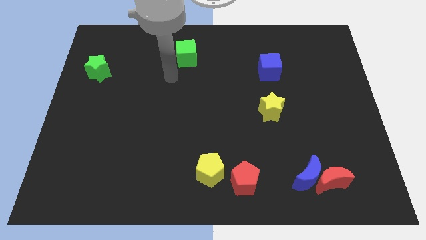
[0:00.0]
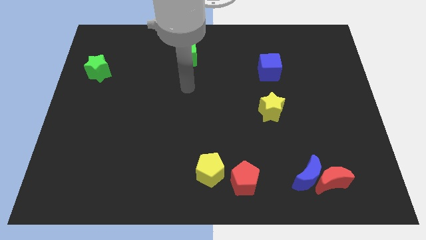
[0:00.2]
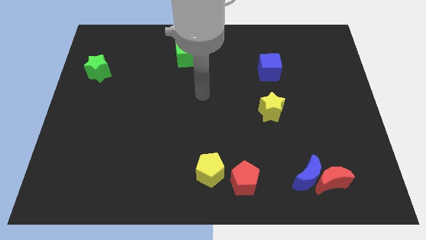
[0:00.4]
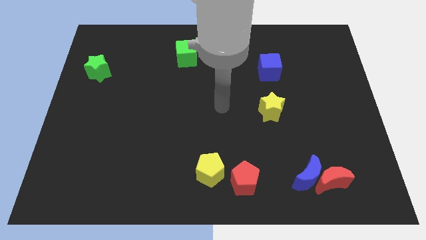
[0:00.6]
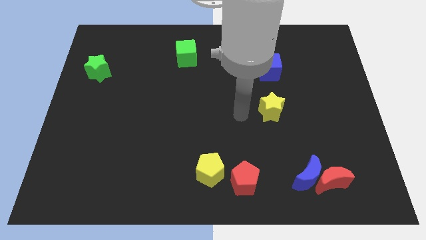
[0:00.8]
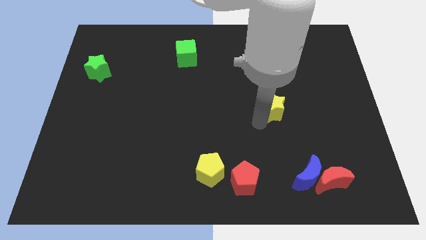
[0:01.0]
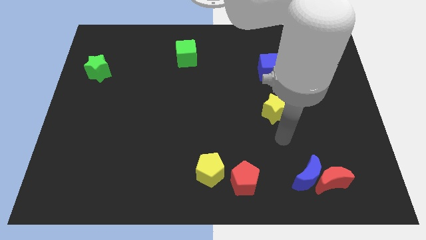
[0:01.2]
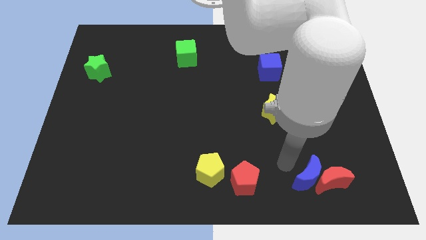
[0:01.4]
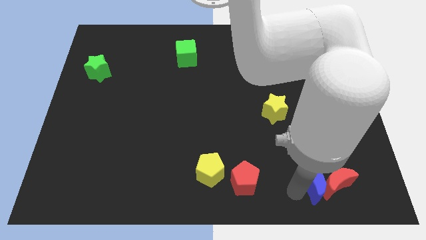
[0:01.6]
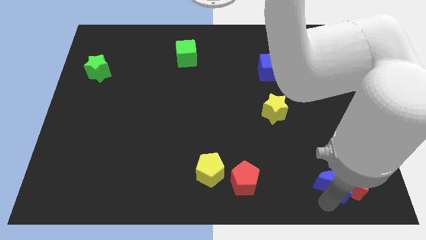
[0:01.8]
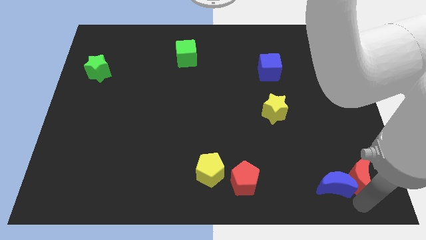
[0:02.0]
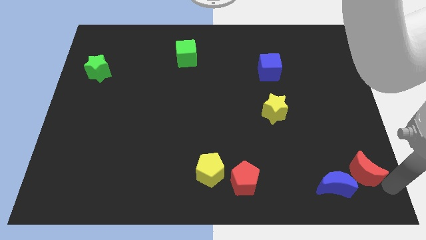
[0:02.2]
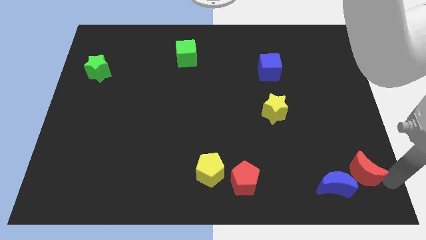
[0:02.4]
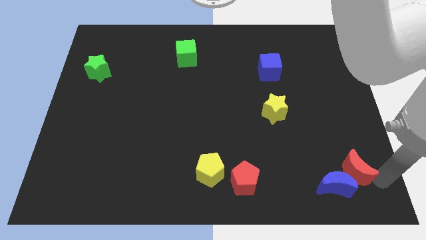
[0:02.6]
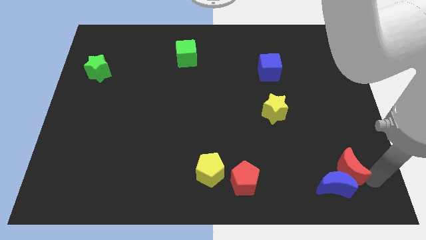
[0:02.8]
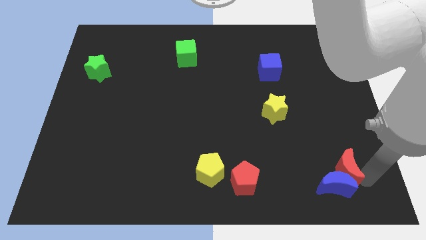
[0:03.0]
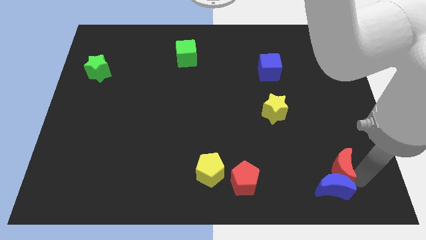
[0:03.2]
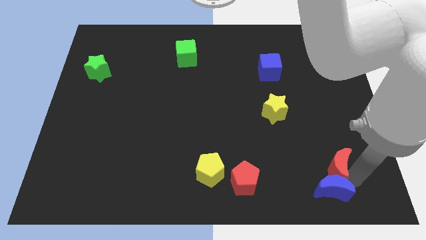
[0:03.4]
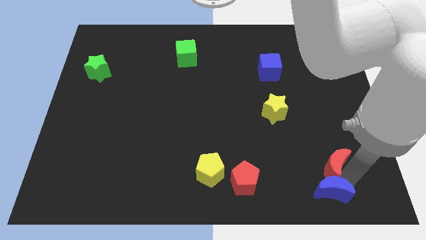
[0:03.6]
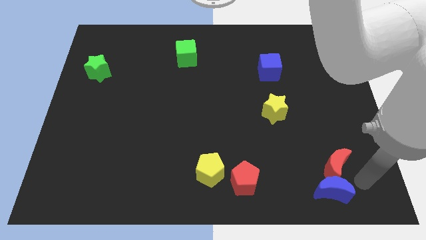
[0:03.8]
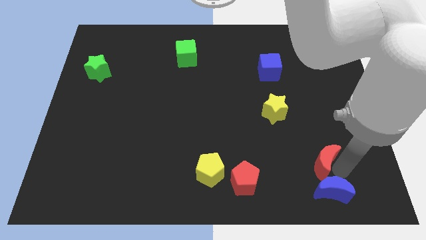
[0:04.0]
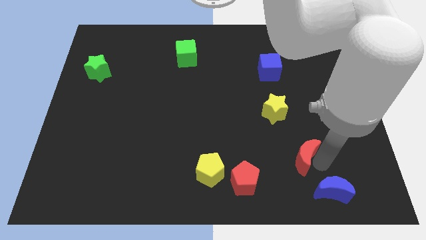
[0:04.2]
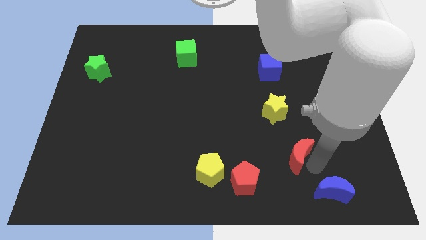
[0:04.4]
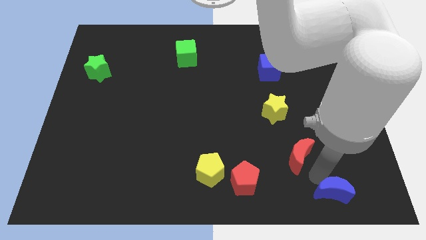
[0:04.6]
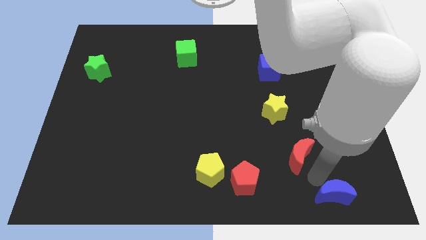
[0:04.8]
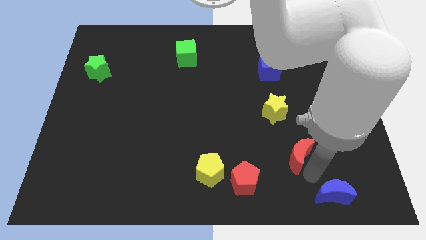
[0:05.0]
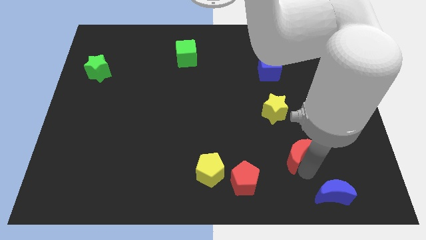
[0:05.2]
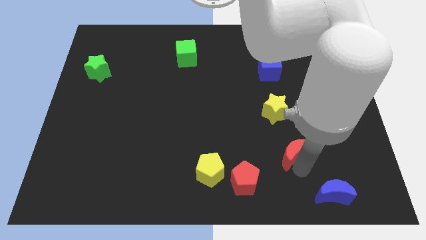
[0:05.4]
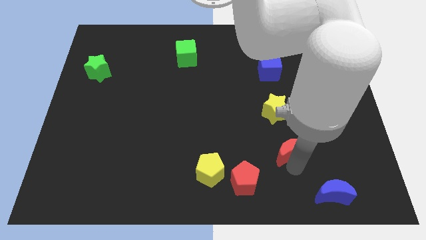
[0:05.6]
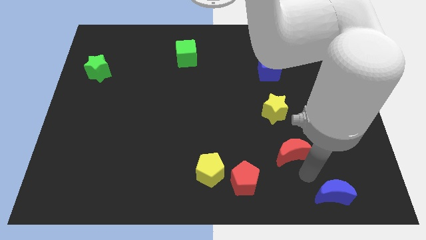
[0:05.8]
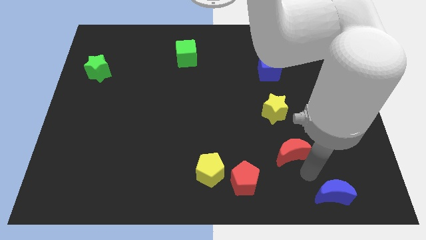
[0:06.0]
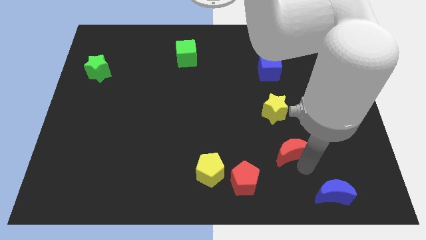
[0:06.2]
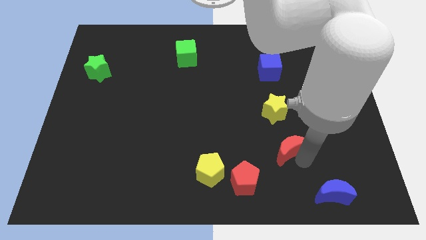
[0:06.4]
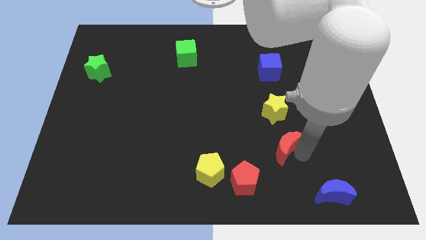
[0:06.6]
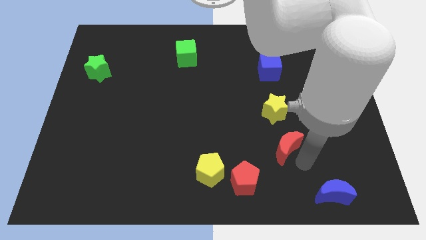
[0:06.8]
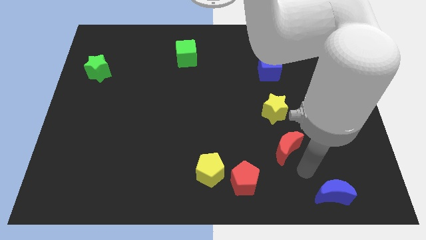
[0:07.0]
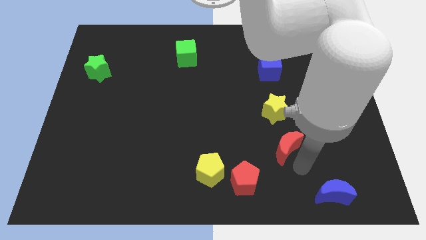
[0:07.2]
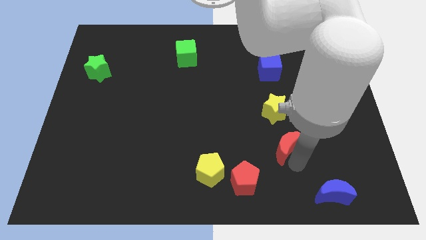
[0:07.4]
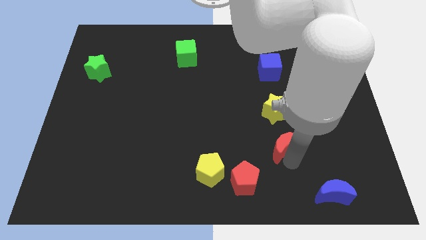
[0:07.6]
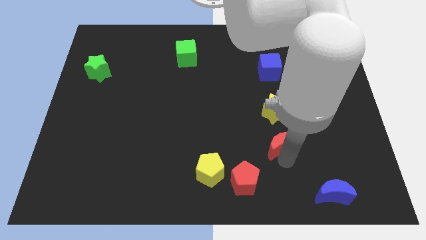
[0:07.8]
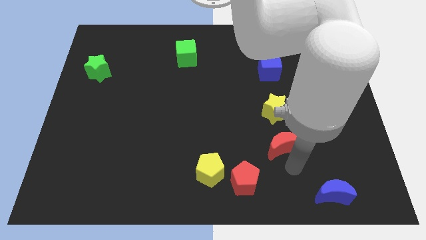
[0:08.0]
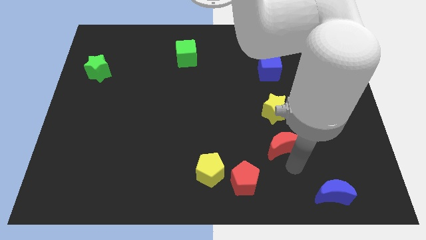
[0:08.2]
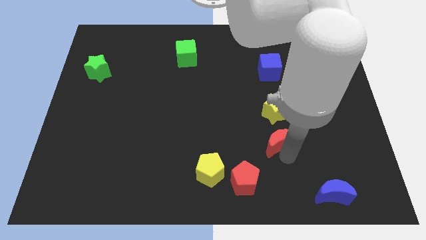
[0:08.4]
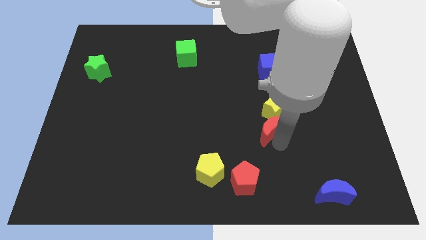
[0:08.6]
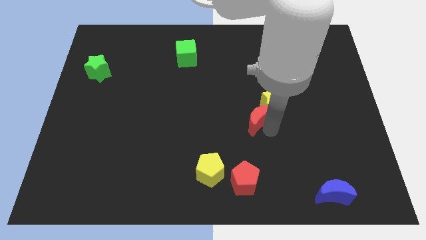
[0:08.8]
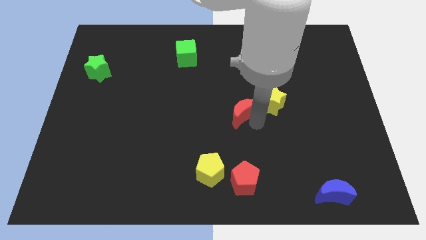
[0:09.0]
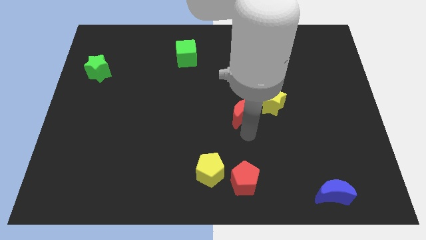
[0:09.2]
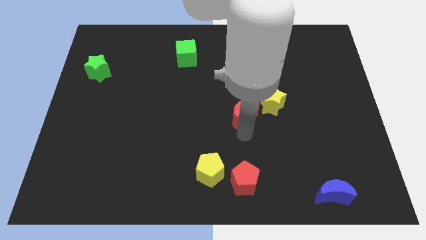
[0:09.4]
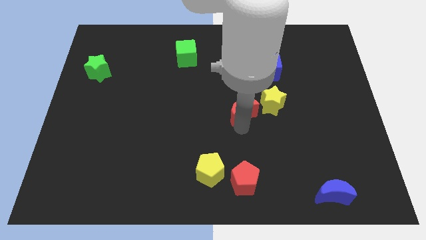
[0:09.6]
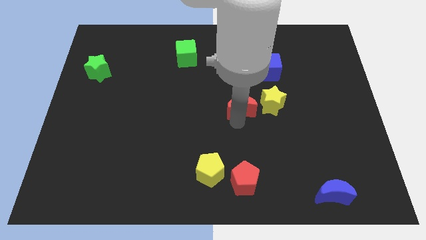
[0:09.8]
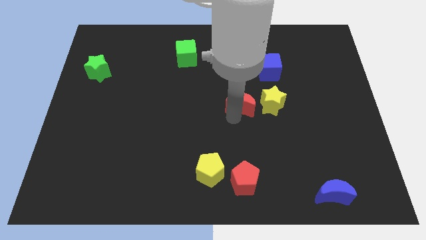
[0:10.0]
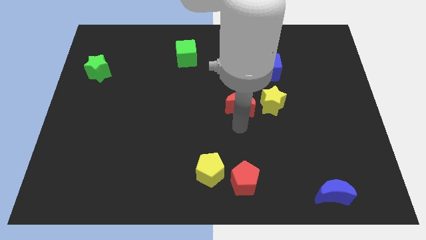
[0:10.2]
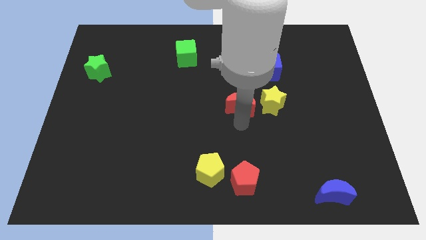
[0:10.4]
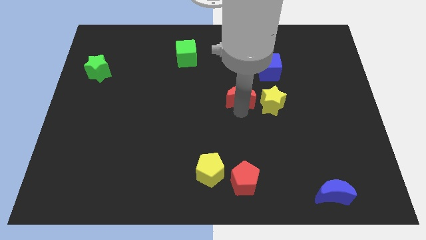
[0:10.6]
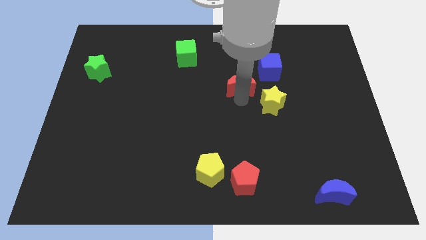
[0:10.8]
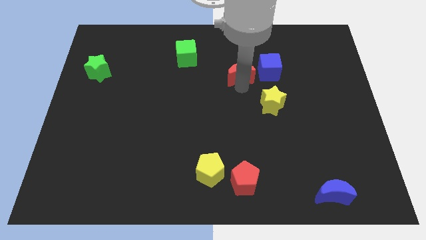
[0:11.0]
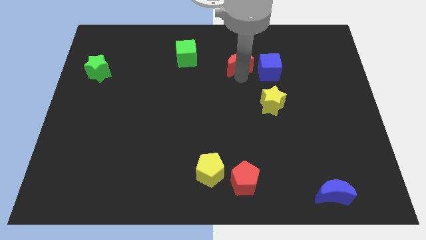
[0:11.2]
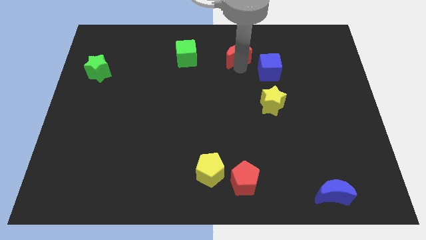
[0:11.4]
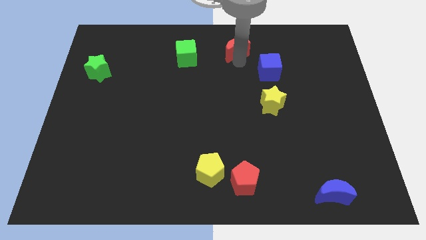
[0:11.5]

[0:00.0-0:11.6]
move the red moon to the top side

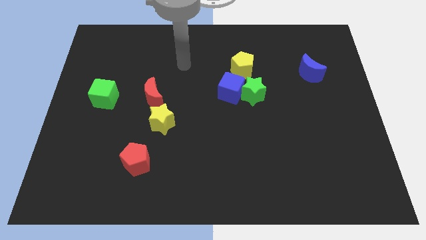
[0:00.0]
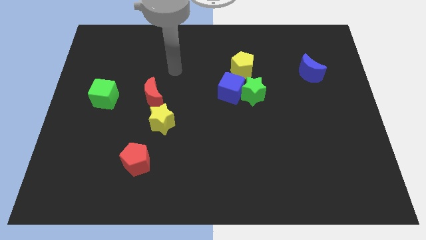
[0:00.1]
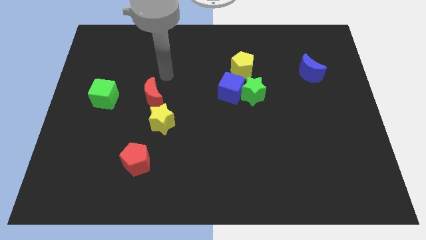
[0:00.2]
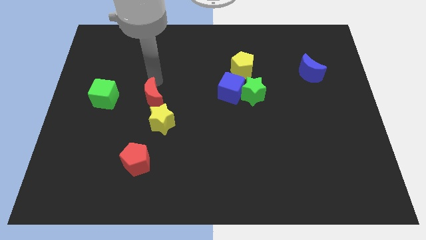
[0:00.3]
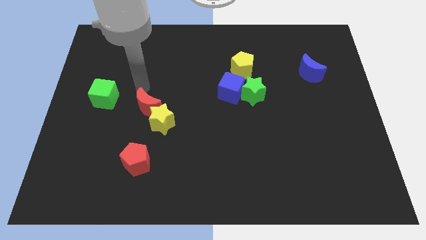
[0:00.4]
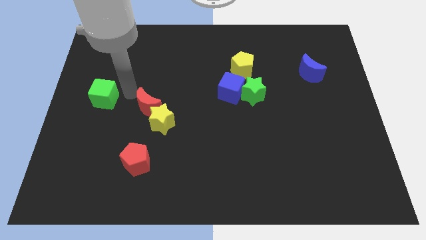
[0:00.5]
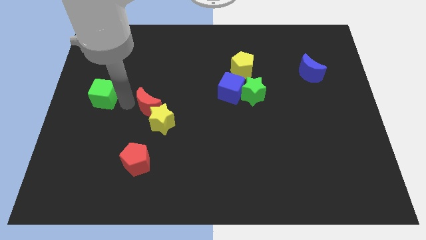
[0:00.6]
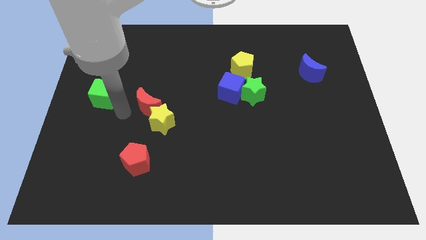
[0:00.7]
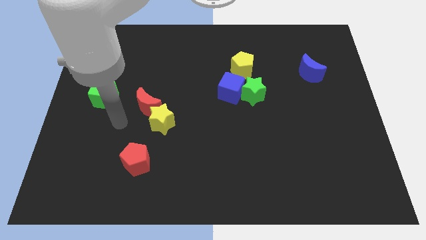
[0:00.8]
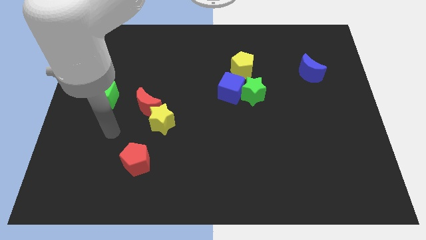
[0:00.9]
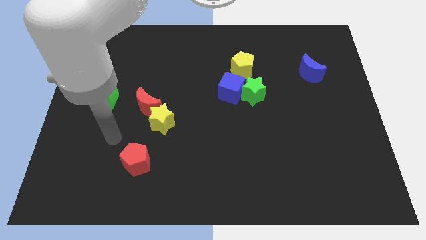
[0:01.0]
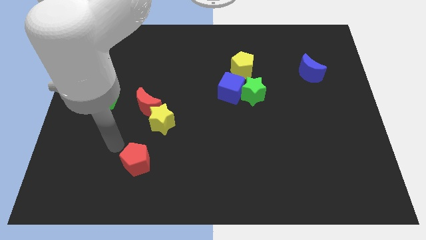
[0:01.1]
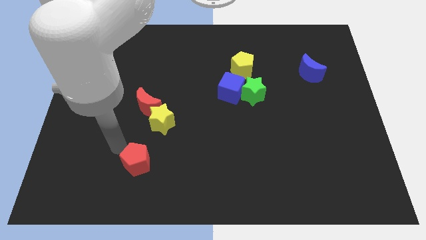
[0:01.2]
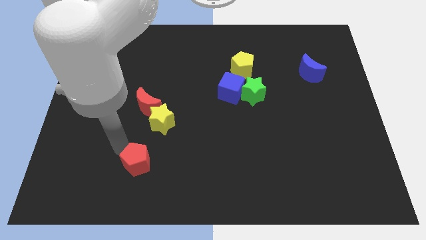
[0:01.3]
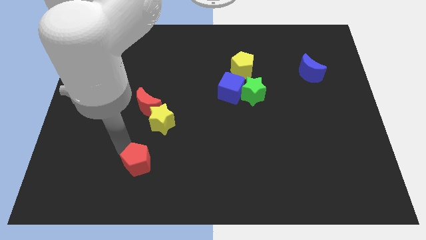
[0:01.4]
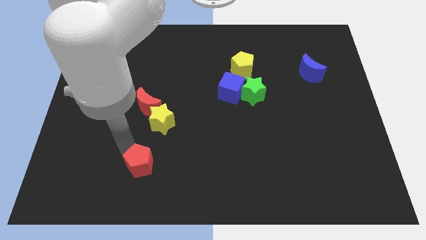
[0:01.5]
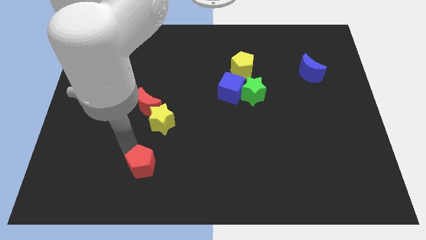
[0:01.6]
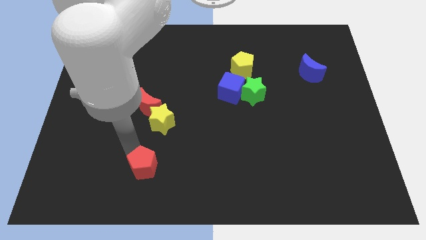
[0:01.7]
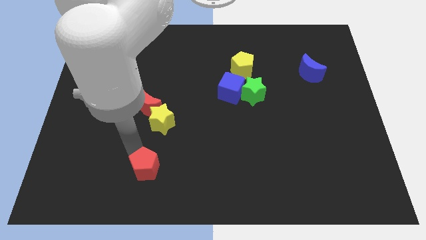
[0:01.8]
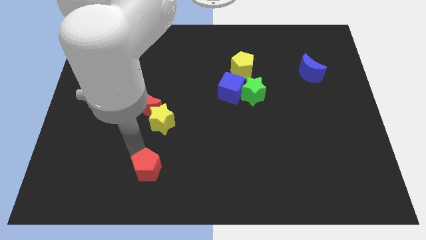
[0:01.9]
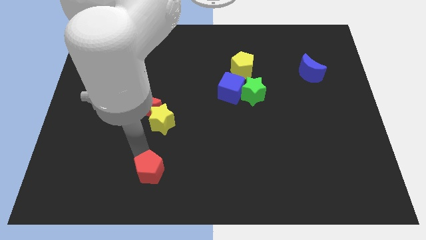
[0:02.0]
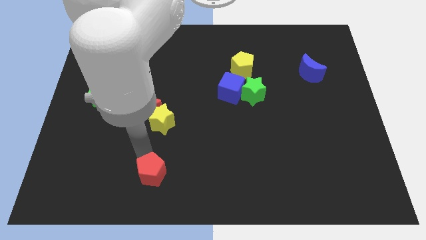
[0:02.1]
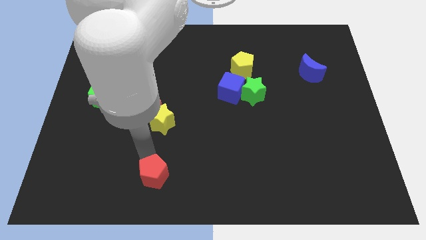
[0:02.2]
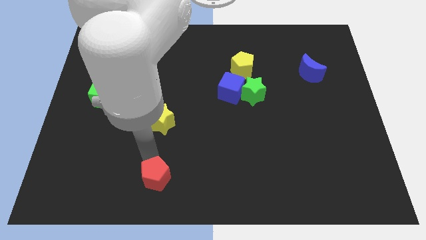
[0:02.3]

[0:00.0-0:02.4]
move the red pentagon to the bottom
